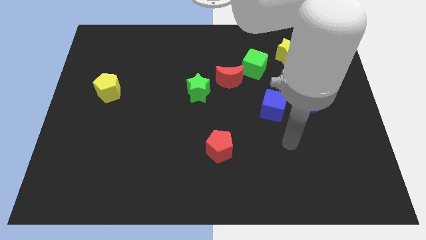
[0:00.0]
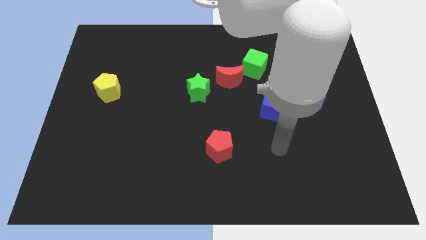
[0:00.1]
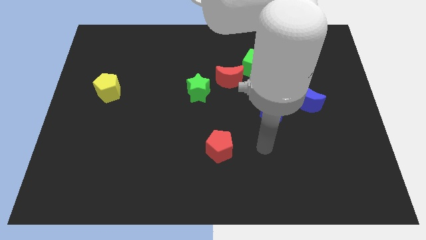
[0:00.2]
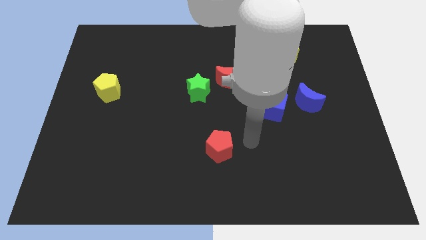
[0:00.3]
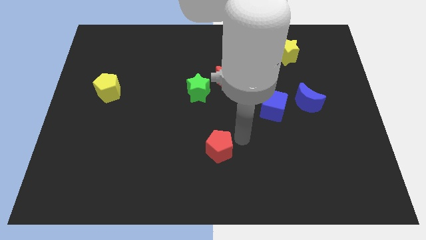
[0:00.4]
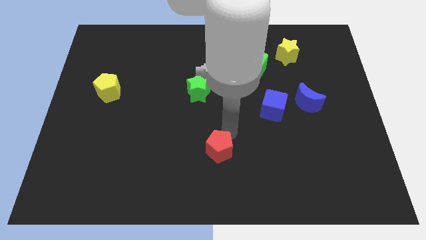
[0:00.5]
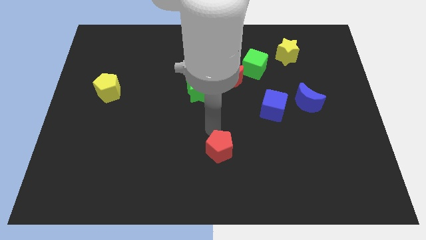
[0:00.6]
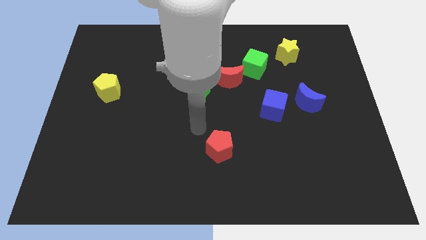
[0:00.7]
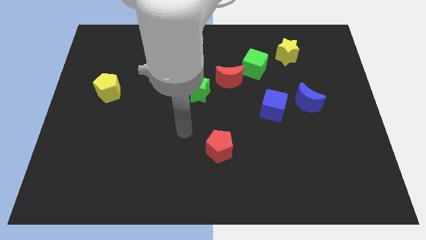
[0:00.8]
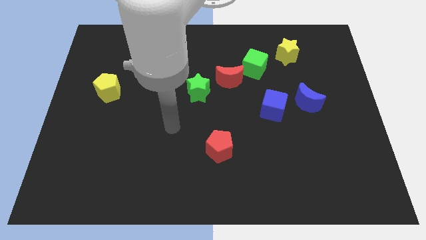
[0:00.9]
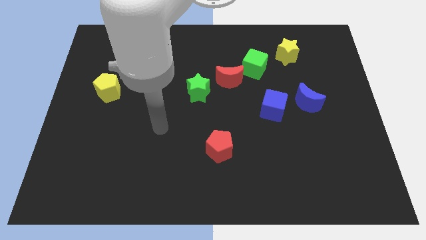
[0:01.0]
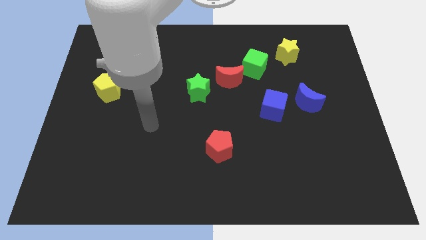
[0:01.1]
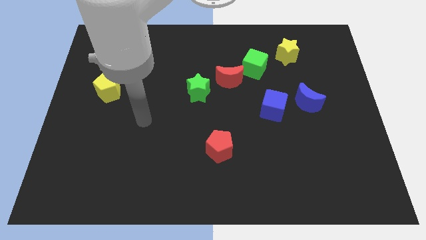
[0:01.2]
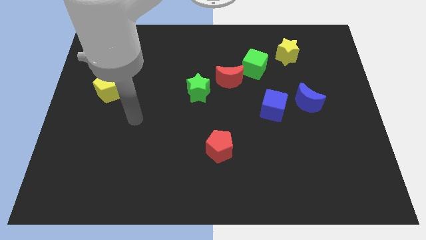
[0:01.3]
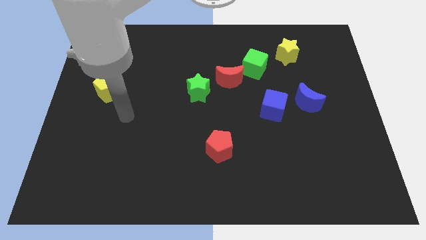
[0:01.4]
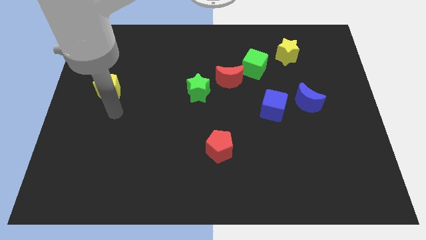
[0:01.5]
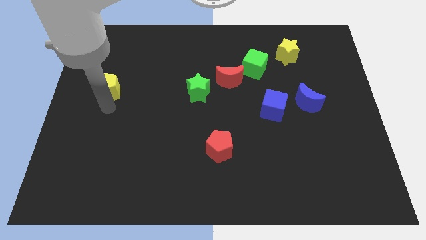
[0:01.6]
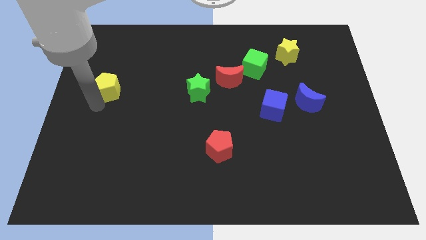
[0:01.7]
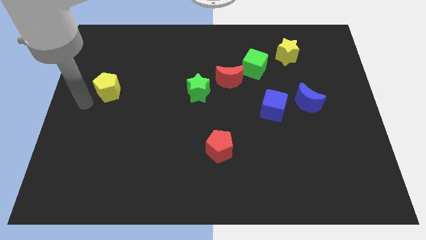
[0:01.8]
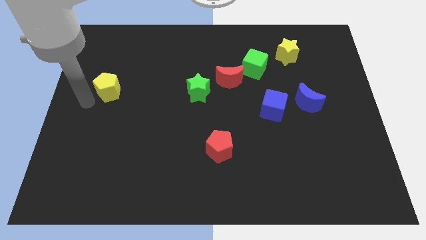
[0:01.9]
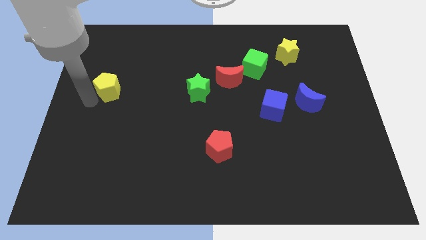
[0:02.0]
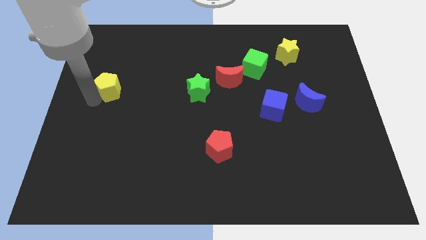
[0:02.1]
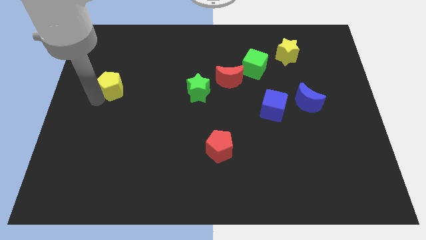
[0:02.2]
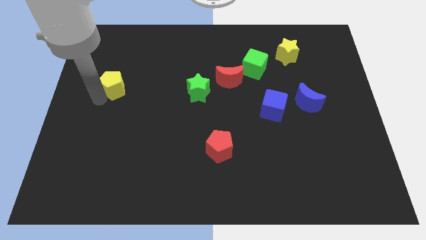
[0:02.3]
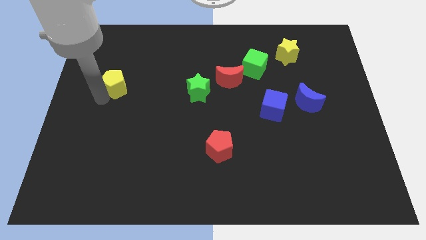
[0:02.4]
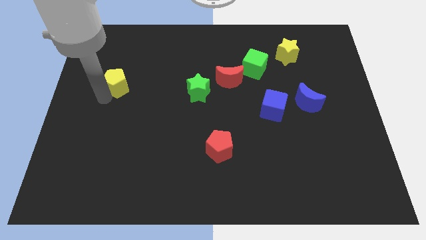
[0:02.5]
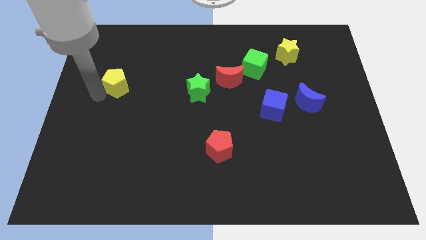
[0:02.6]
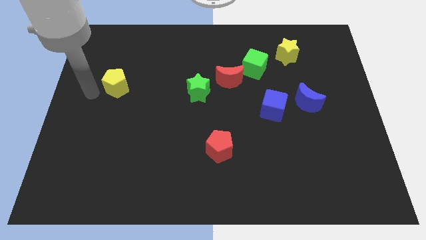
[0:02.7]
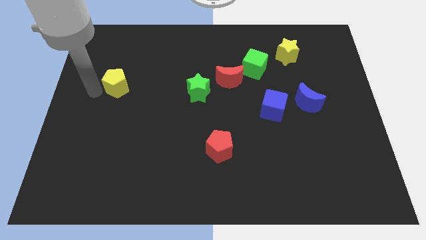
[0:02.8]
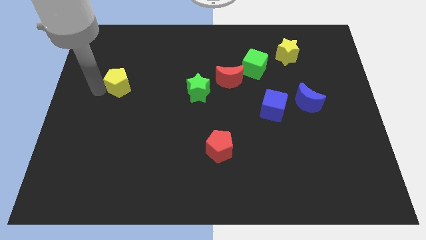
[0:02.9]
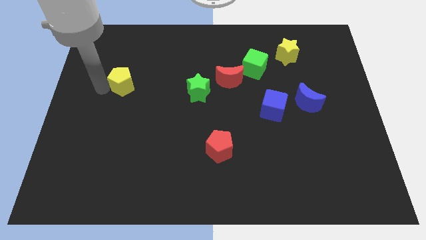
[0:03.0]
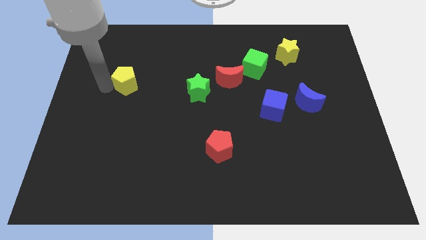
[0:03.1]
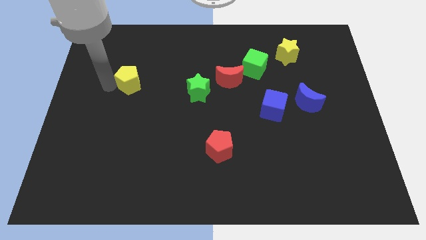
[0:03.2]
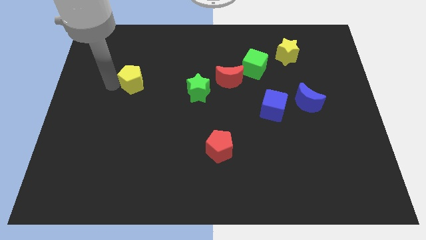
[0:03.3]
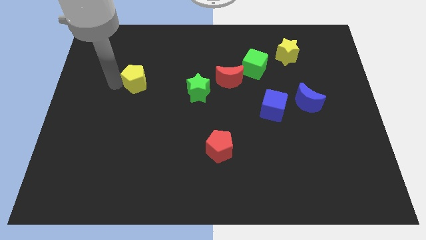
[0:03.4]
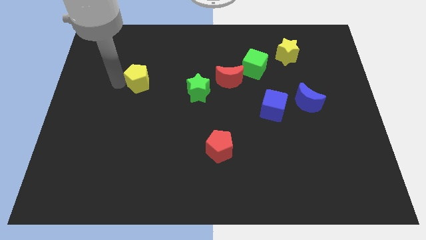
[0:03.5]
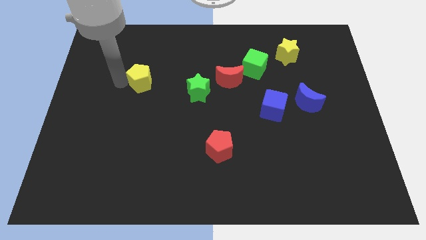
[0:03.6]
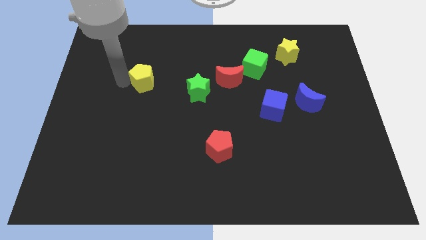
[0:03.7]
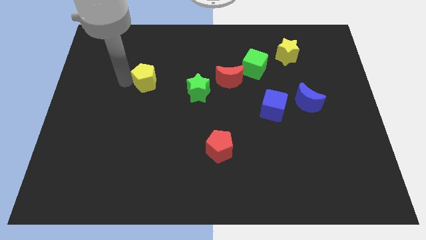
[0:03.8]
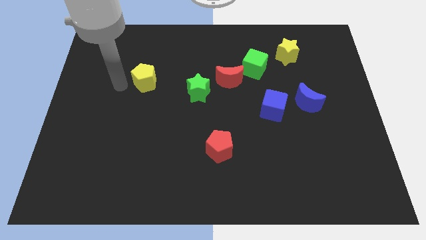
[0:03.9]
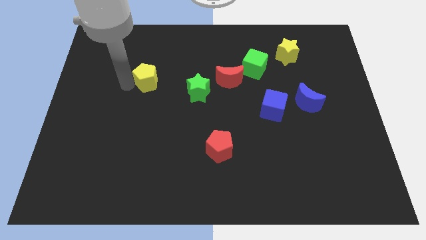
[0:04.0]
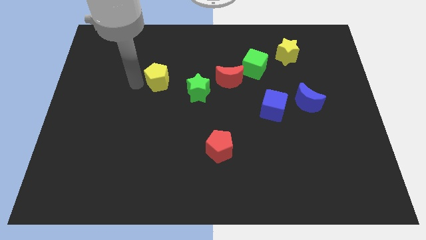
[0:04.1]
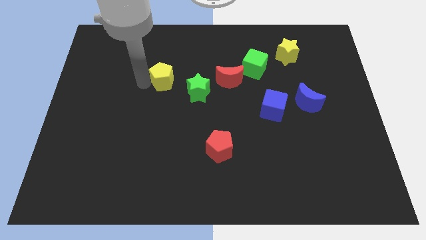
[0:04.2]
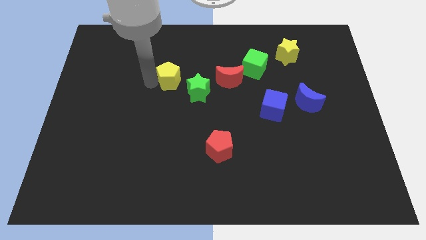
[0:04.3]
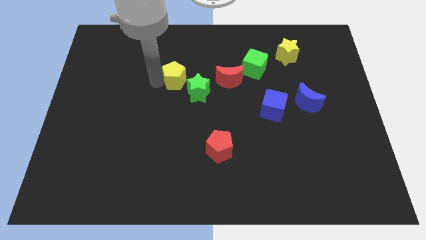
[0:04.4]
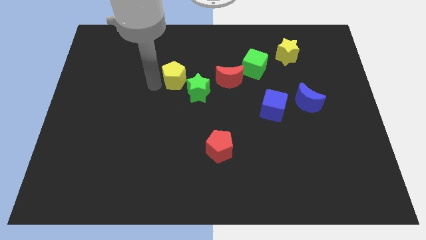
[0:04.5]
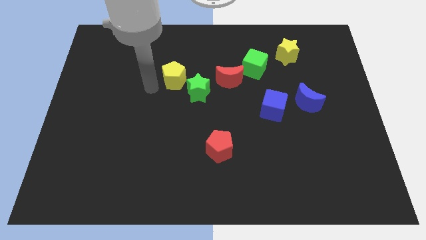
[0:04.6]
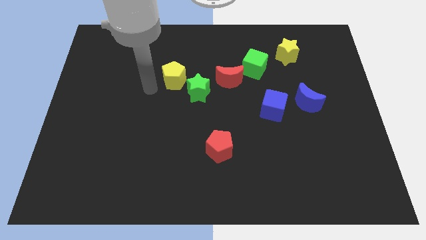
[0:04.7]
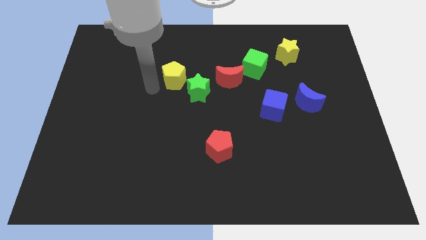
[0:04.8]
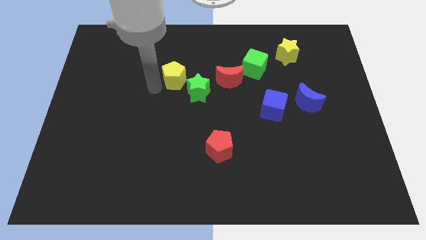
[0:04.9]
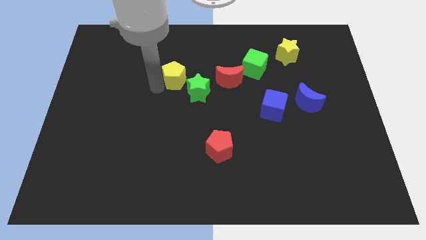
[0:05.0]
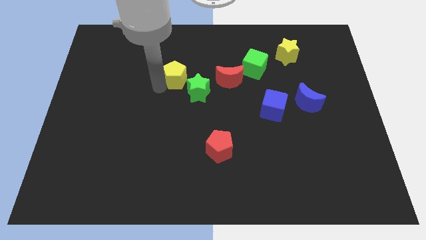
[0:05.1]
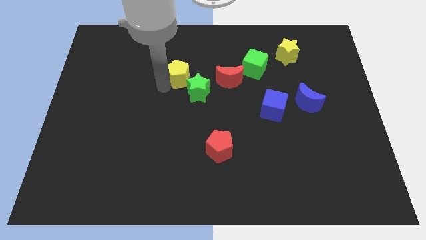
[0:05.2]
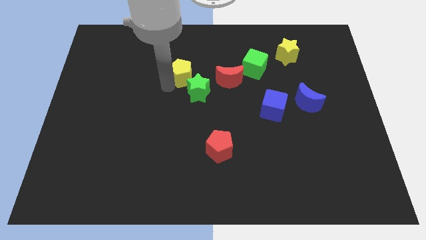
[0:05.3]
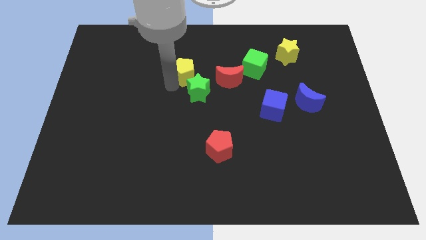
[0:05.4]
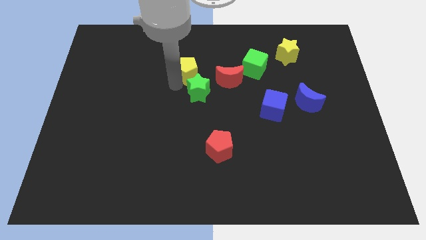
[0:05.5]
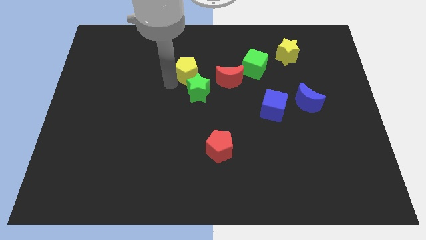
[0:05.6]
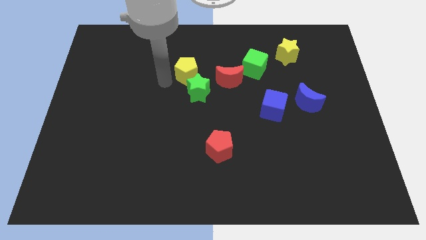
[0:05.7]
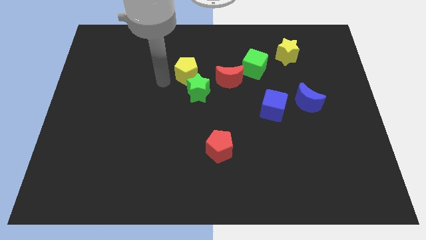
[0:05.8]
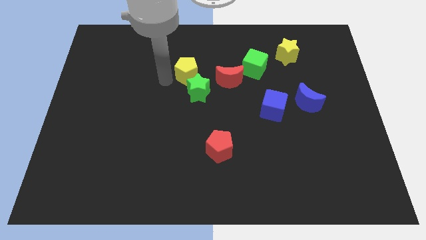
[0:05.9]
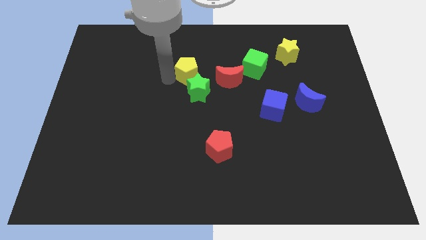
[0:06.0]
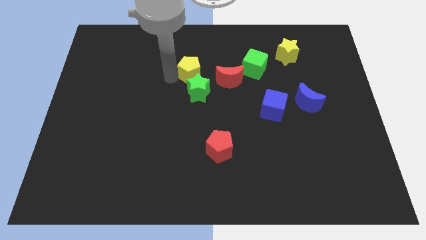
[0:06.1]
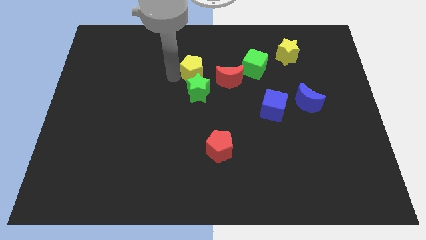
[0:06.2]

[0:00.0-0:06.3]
put the yellow pentagon just left of the green cube

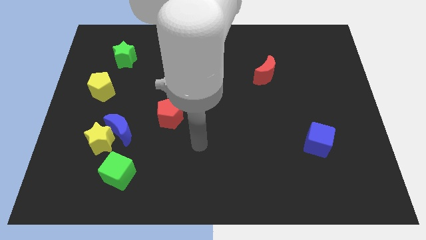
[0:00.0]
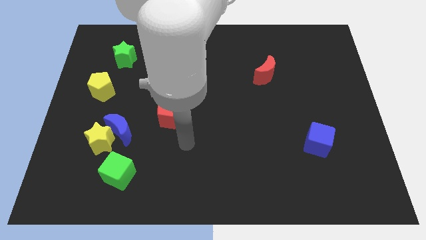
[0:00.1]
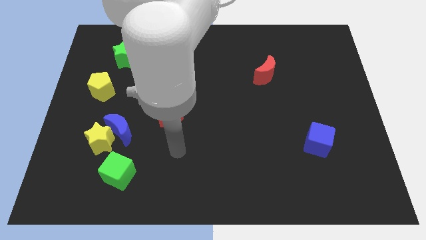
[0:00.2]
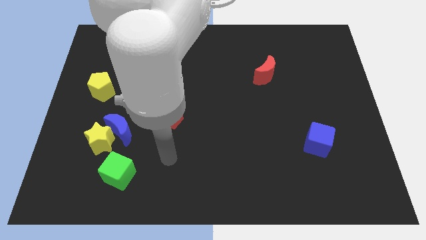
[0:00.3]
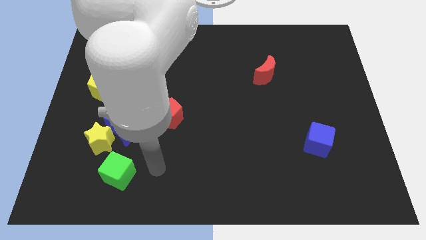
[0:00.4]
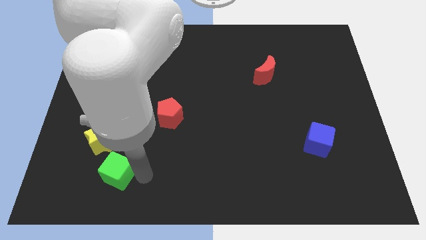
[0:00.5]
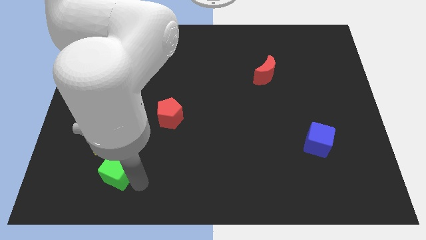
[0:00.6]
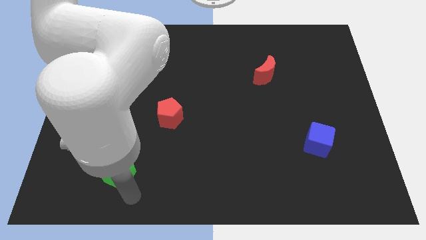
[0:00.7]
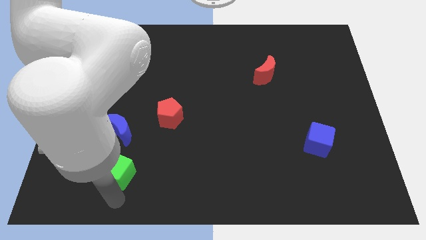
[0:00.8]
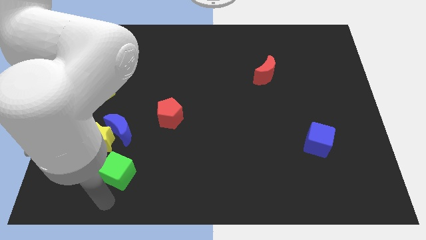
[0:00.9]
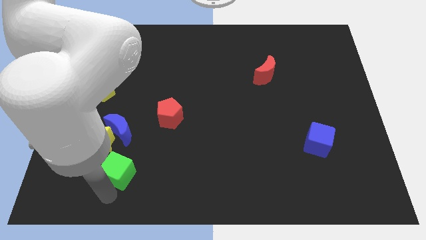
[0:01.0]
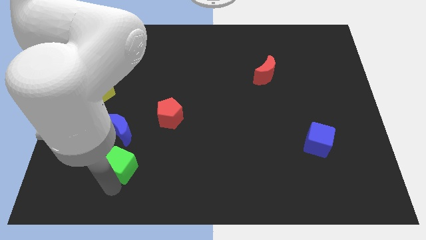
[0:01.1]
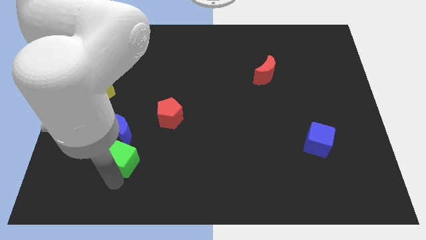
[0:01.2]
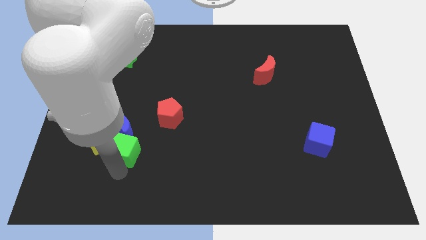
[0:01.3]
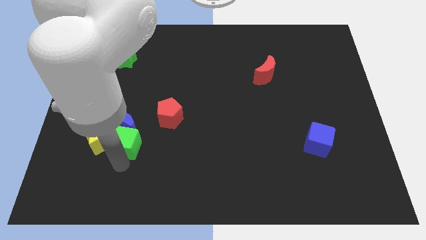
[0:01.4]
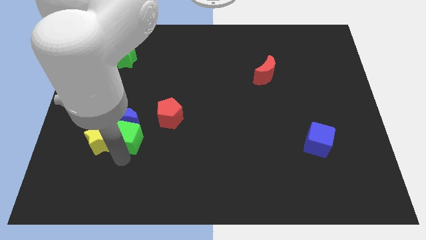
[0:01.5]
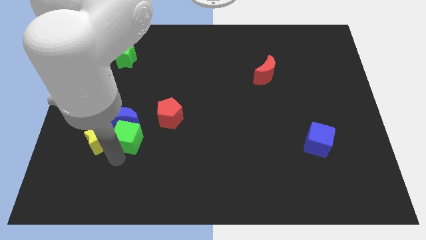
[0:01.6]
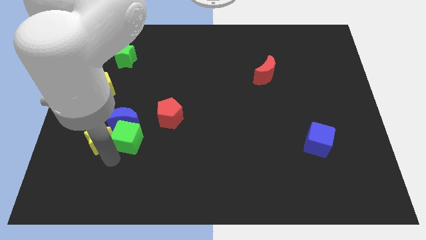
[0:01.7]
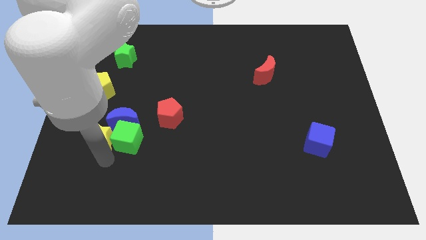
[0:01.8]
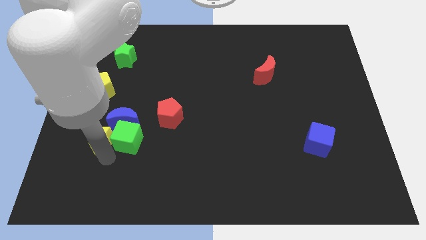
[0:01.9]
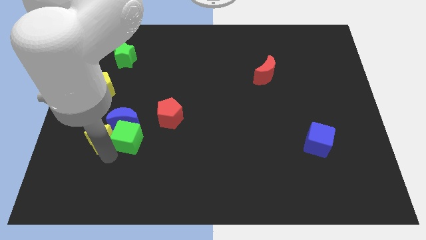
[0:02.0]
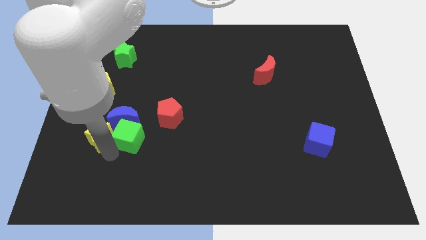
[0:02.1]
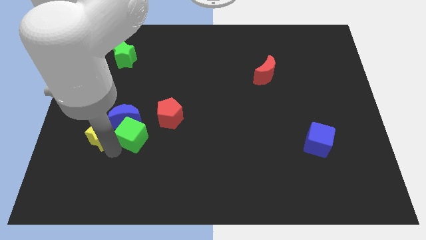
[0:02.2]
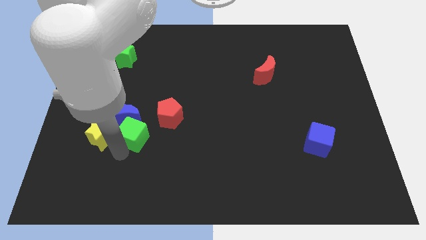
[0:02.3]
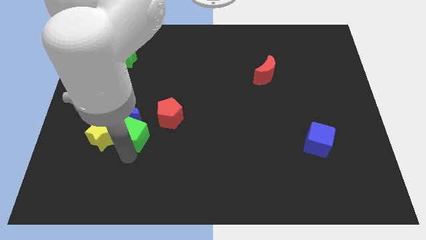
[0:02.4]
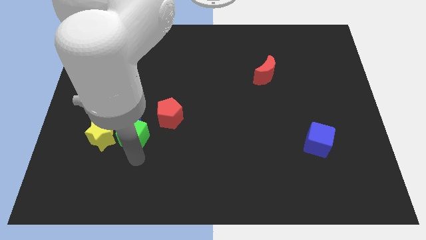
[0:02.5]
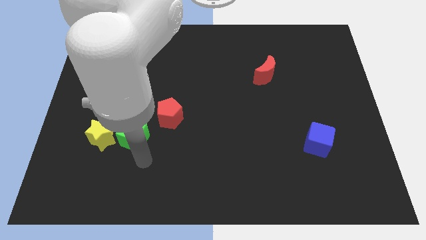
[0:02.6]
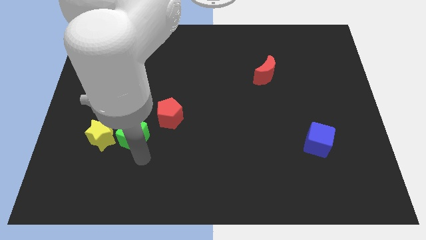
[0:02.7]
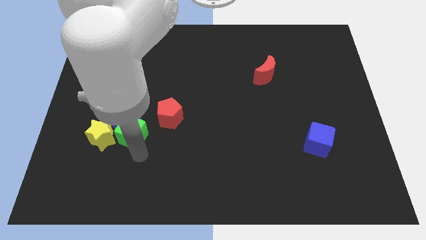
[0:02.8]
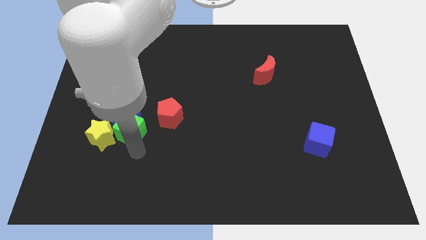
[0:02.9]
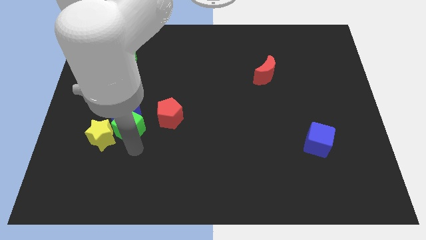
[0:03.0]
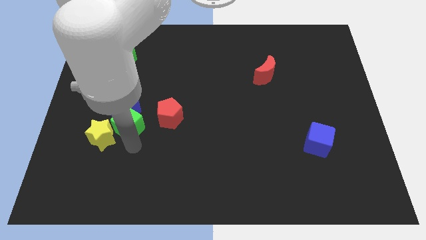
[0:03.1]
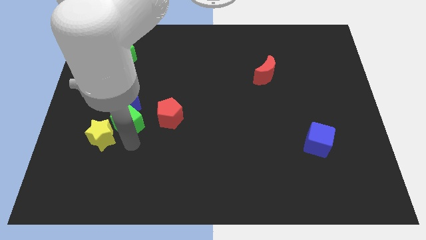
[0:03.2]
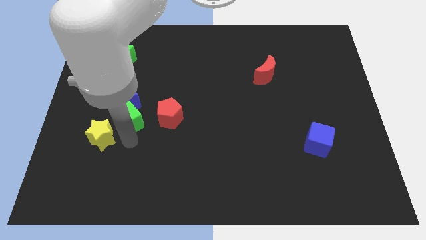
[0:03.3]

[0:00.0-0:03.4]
slide the green cube to the bottom right of the yellow pentagon
